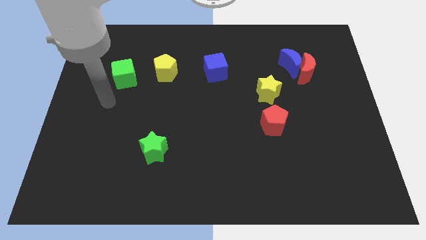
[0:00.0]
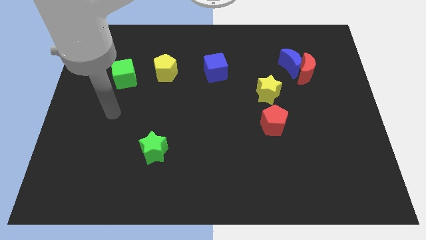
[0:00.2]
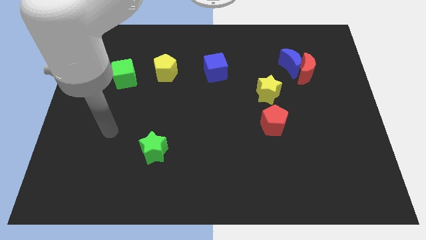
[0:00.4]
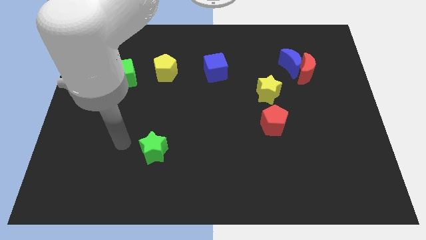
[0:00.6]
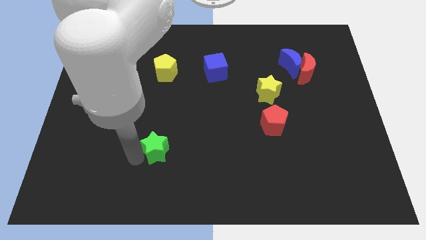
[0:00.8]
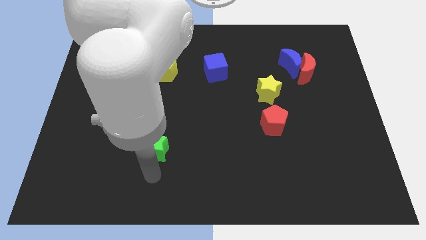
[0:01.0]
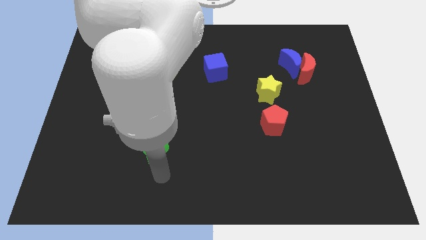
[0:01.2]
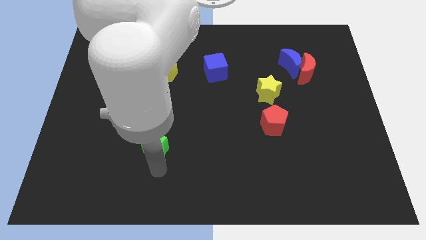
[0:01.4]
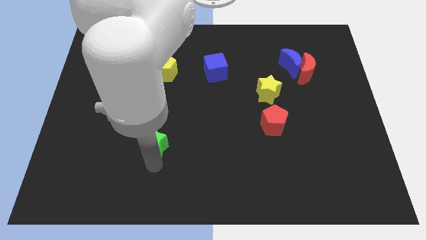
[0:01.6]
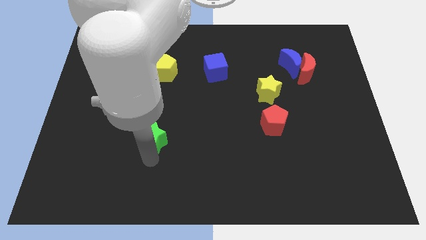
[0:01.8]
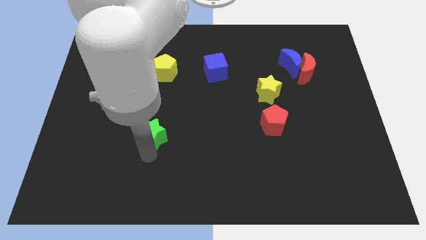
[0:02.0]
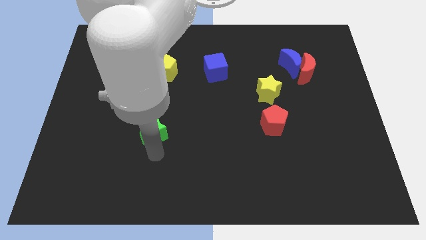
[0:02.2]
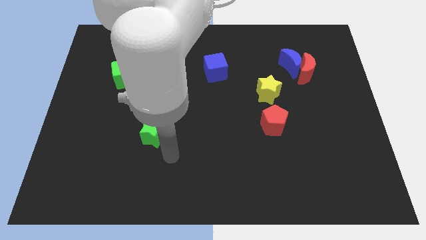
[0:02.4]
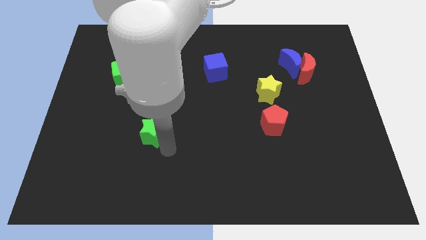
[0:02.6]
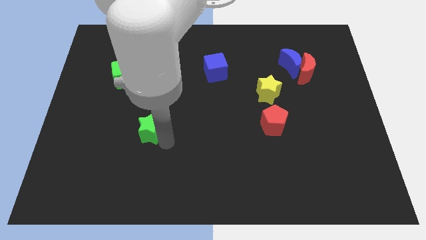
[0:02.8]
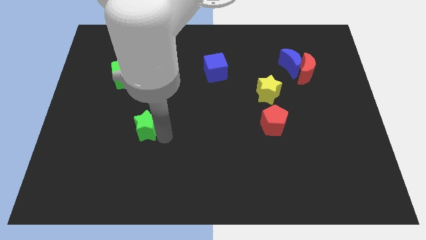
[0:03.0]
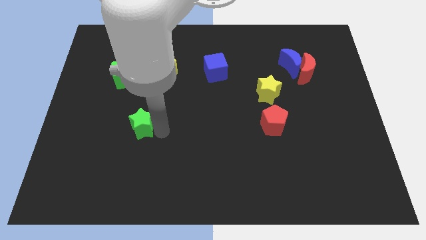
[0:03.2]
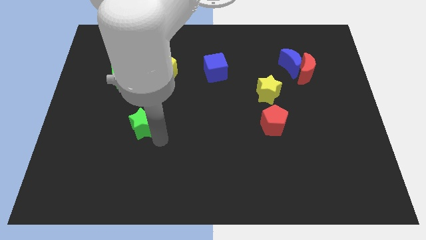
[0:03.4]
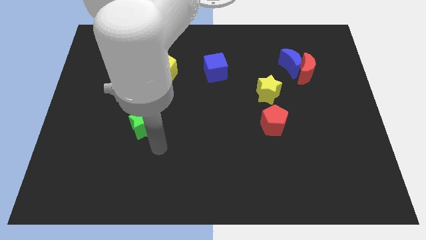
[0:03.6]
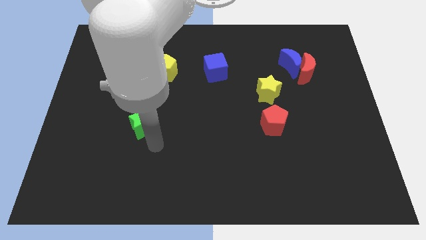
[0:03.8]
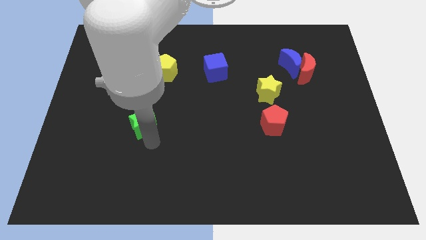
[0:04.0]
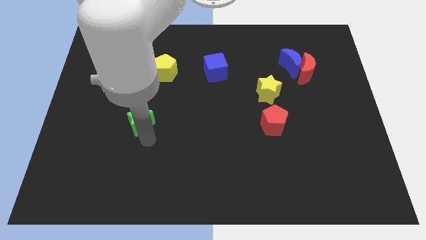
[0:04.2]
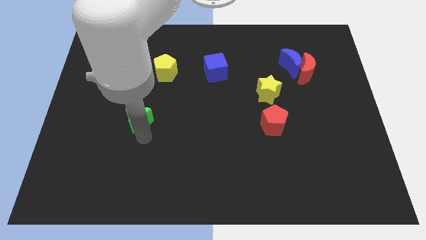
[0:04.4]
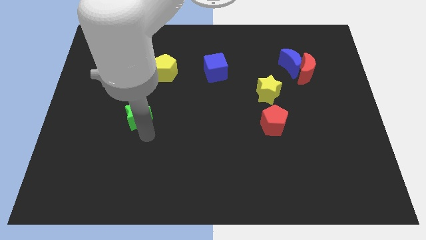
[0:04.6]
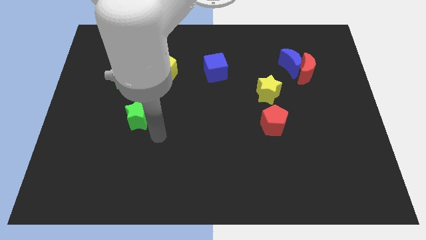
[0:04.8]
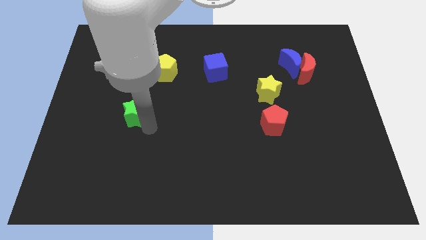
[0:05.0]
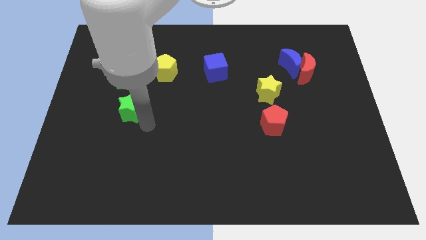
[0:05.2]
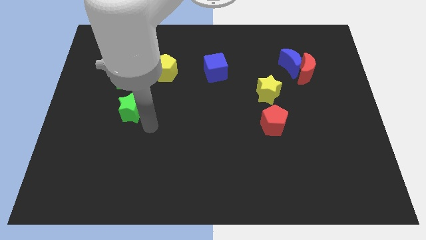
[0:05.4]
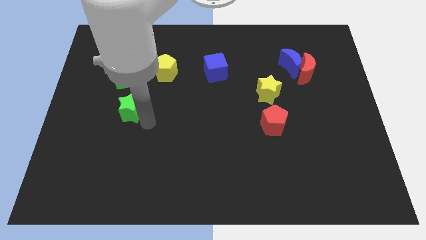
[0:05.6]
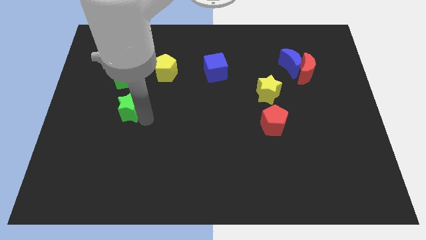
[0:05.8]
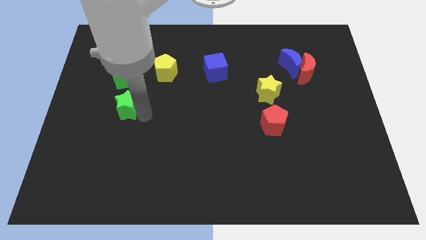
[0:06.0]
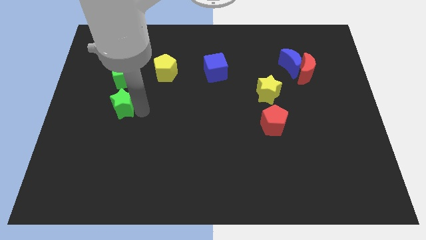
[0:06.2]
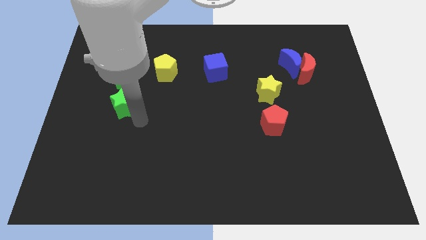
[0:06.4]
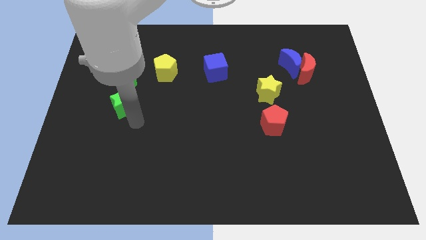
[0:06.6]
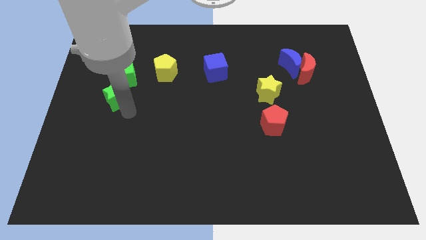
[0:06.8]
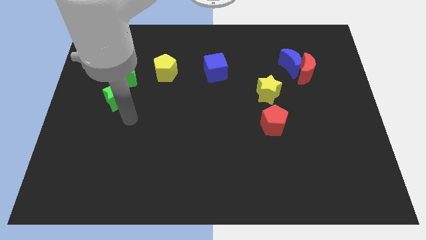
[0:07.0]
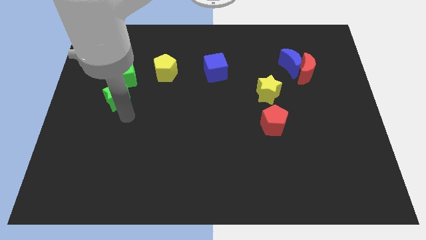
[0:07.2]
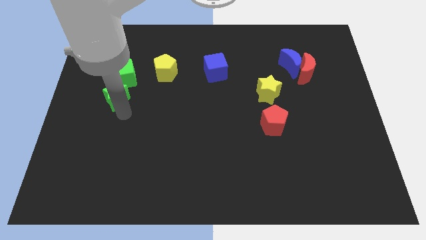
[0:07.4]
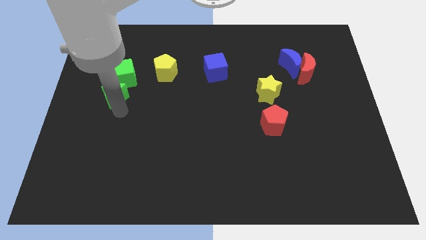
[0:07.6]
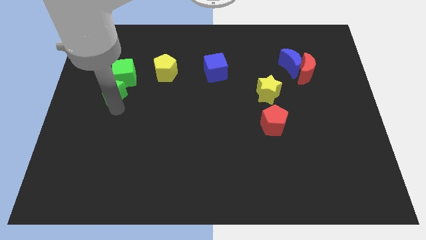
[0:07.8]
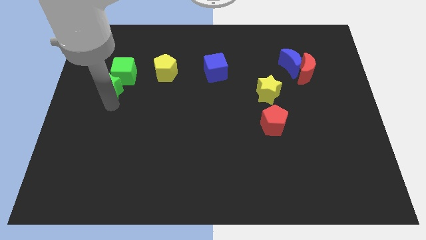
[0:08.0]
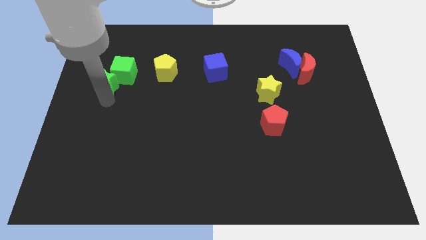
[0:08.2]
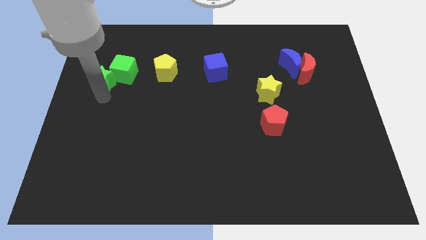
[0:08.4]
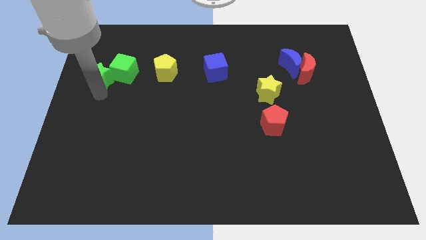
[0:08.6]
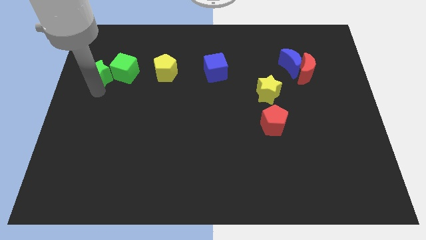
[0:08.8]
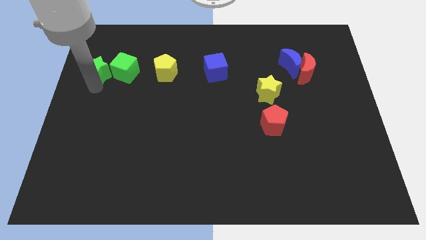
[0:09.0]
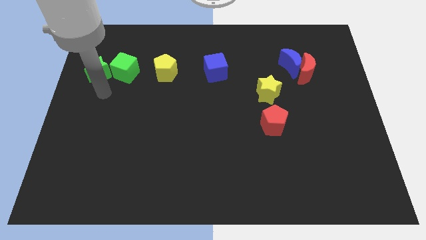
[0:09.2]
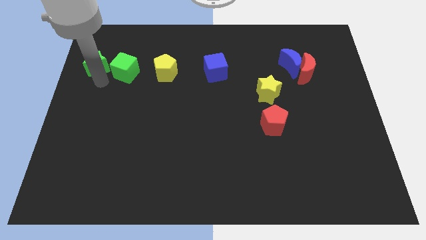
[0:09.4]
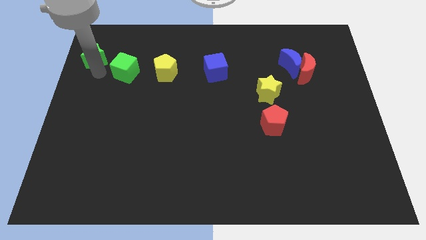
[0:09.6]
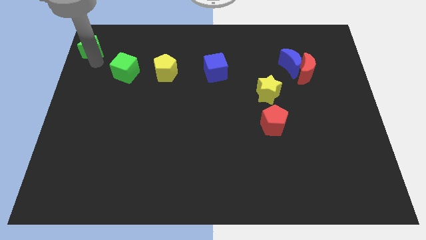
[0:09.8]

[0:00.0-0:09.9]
slide the green star to the upper left corner

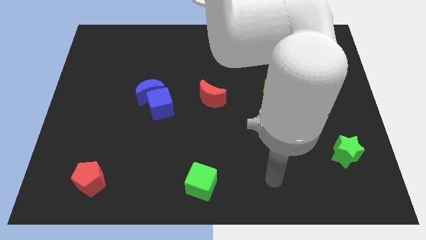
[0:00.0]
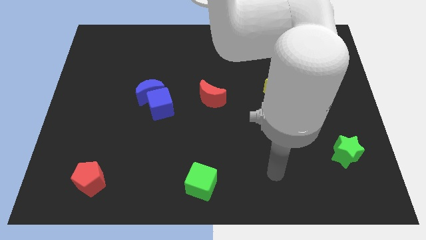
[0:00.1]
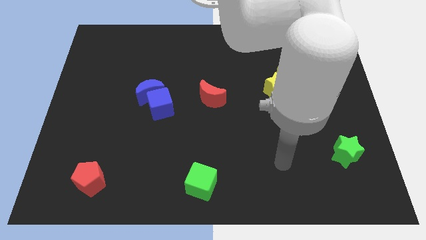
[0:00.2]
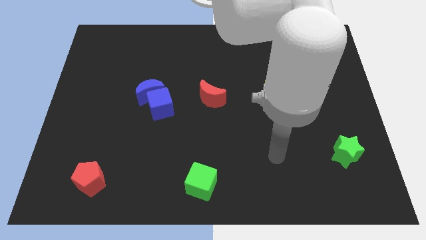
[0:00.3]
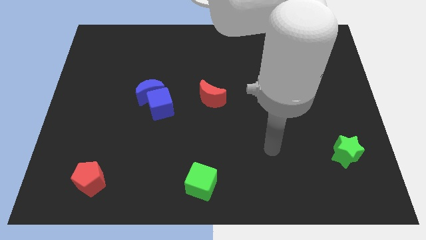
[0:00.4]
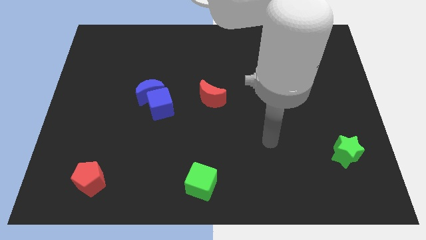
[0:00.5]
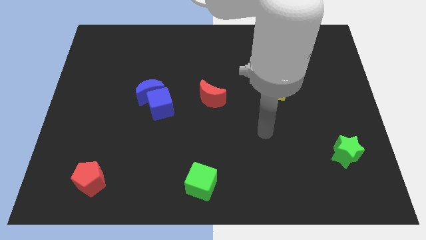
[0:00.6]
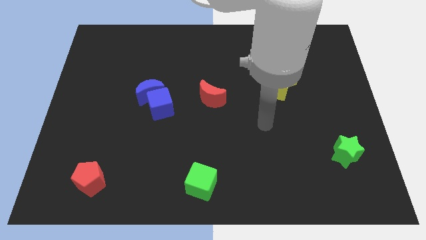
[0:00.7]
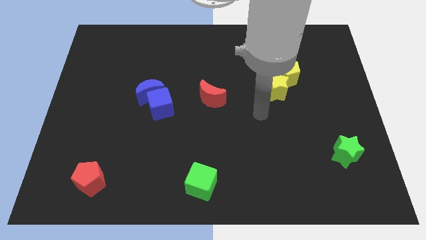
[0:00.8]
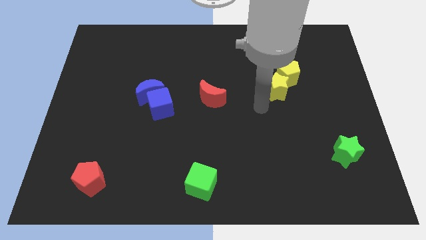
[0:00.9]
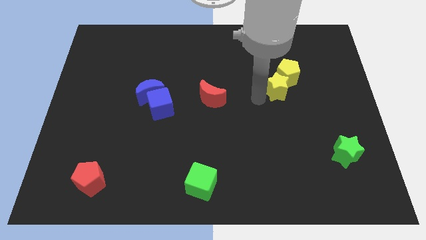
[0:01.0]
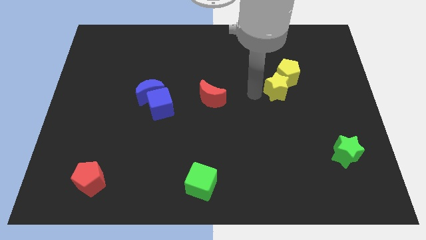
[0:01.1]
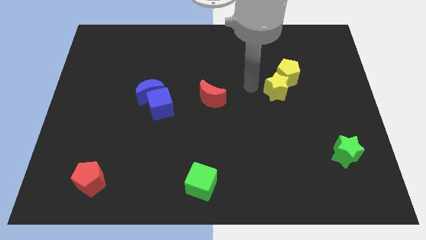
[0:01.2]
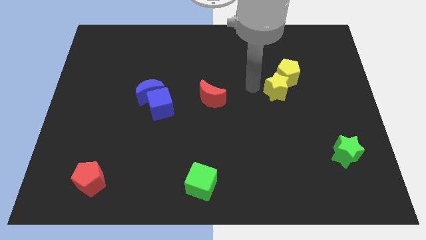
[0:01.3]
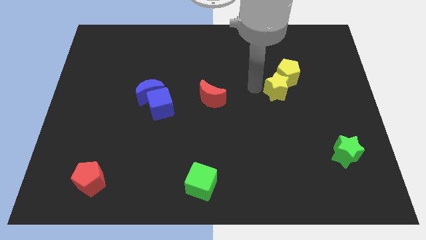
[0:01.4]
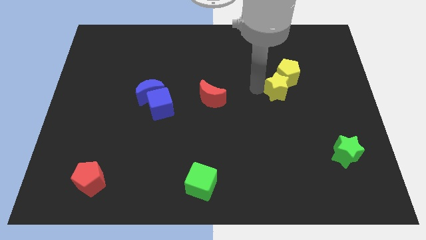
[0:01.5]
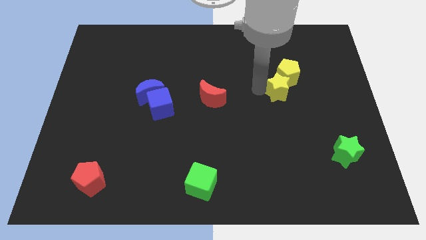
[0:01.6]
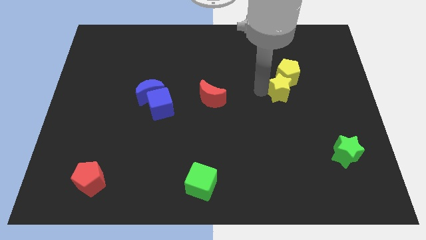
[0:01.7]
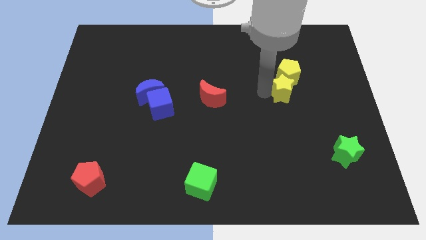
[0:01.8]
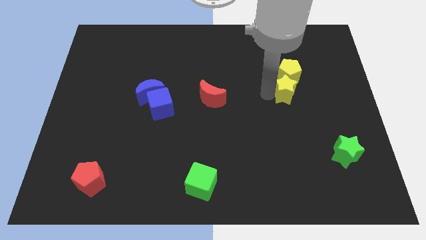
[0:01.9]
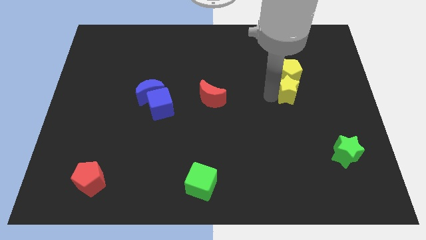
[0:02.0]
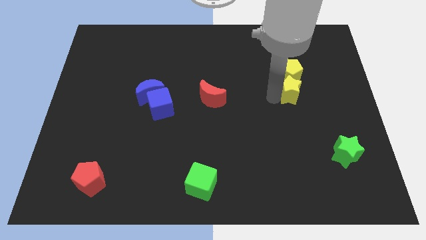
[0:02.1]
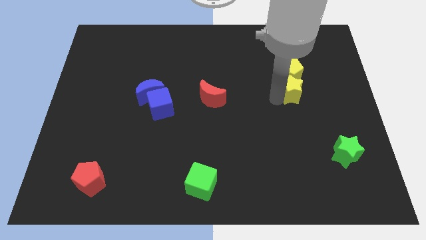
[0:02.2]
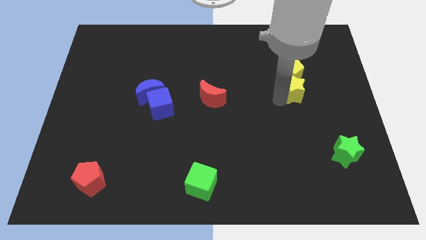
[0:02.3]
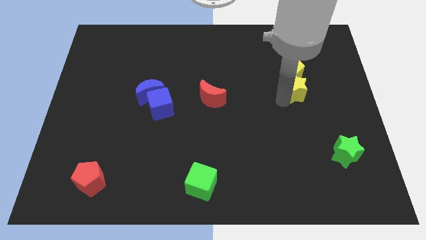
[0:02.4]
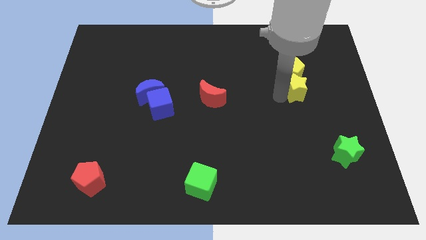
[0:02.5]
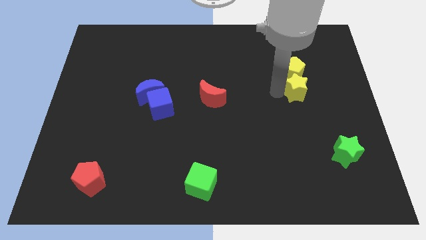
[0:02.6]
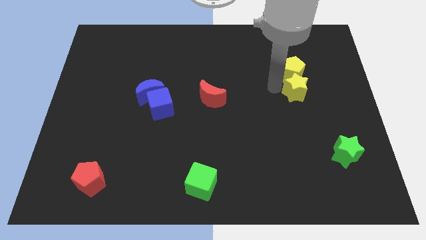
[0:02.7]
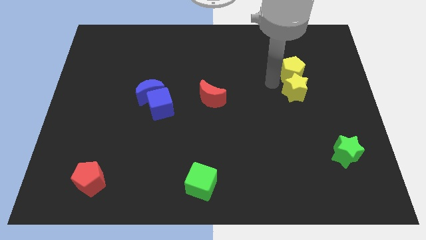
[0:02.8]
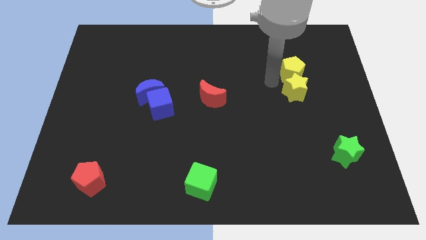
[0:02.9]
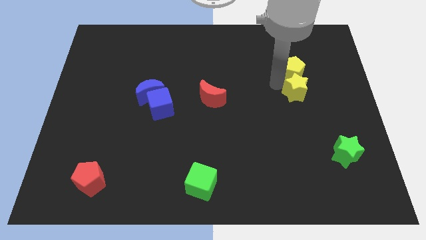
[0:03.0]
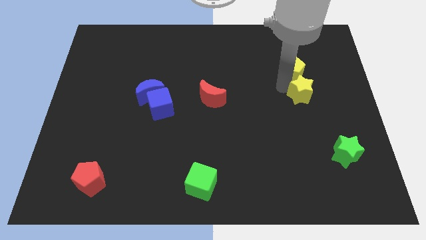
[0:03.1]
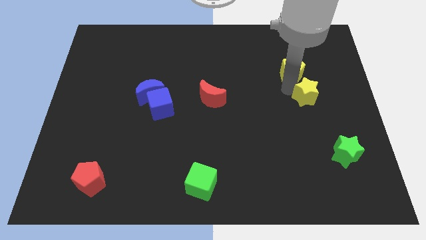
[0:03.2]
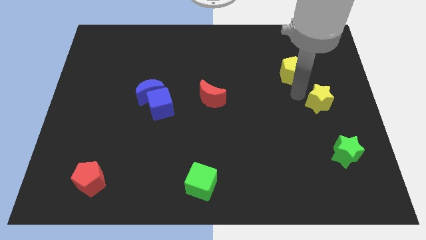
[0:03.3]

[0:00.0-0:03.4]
push the yellow star to the center right
